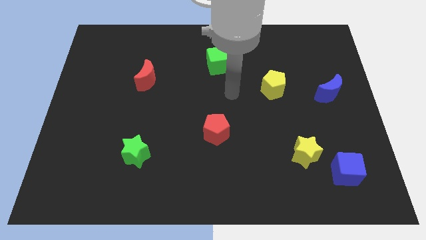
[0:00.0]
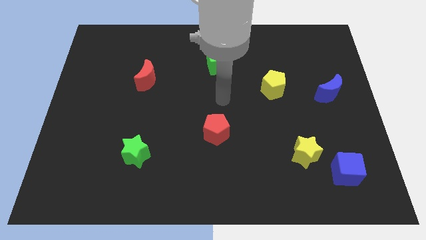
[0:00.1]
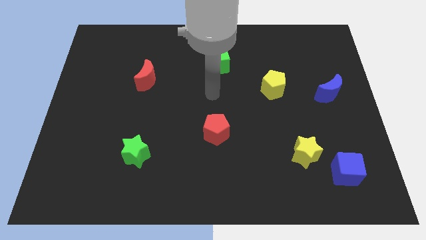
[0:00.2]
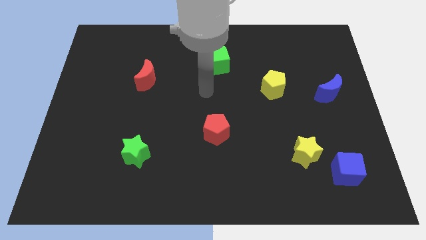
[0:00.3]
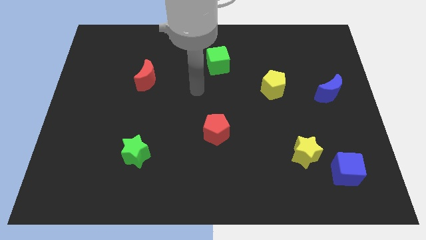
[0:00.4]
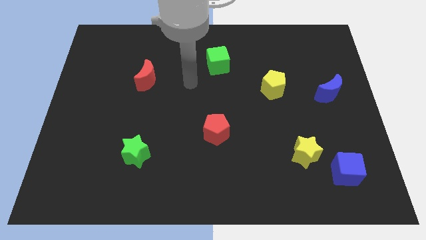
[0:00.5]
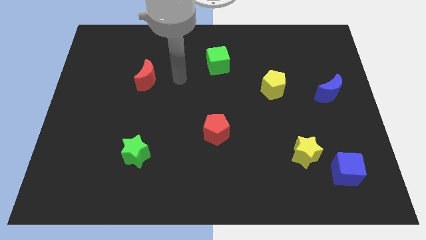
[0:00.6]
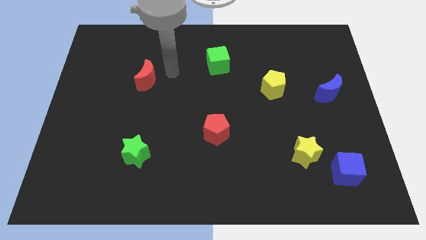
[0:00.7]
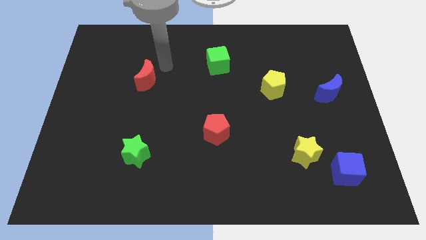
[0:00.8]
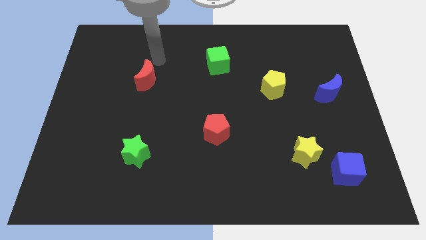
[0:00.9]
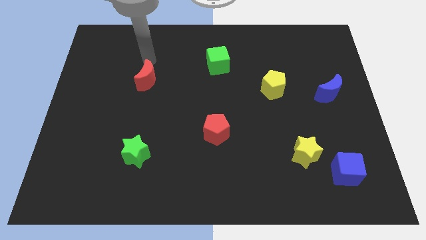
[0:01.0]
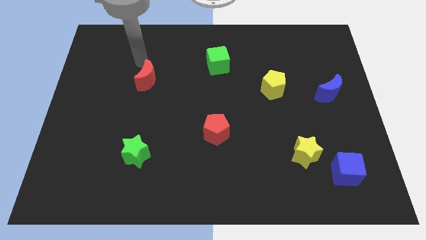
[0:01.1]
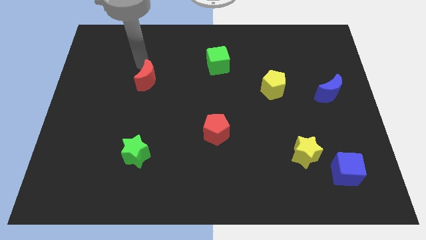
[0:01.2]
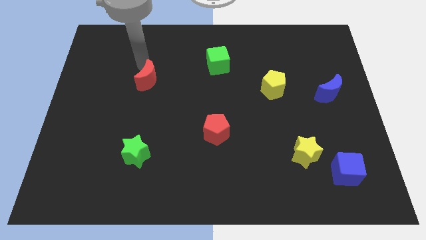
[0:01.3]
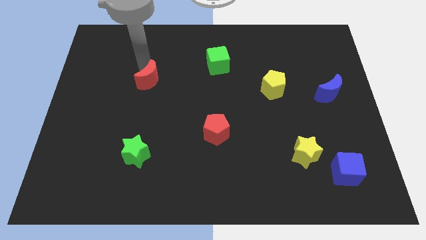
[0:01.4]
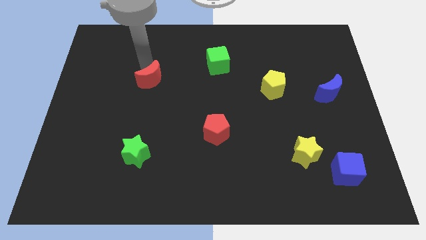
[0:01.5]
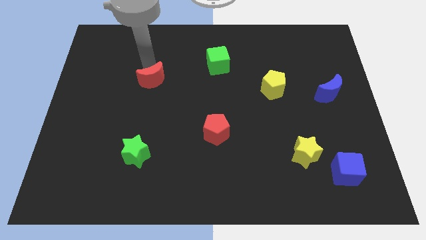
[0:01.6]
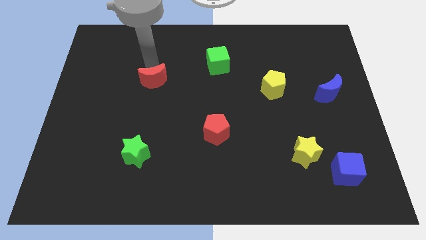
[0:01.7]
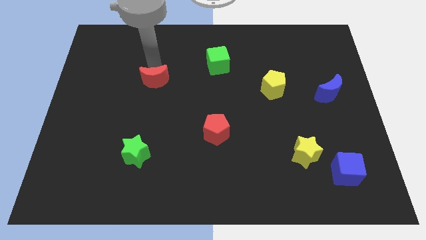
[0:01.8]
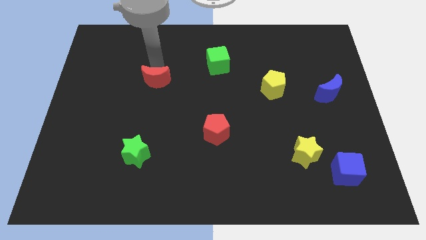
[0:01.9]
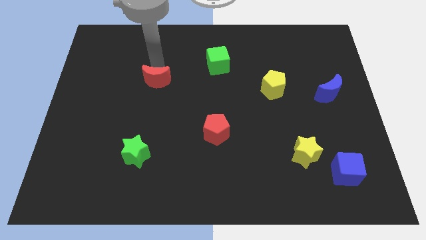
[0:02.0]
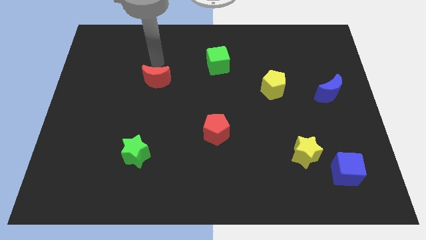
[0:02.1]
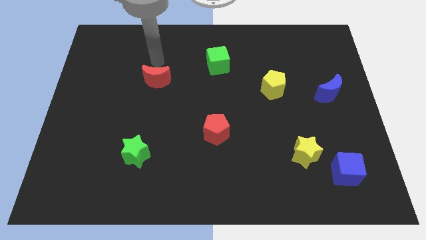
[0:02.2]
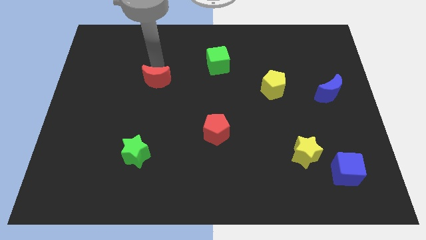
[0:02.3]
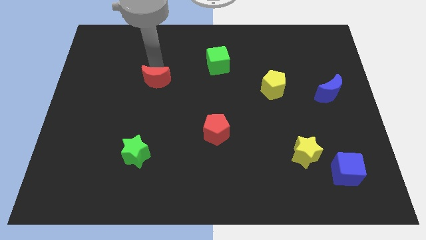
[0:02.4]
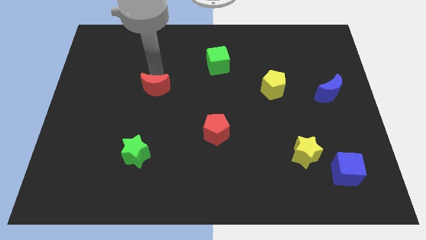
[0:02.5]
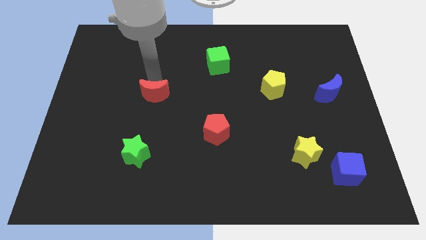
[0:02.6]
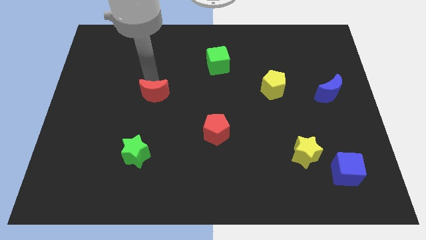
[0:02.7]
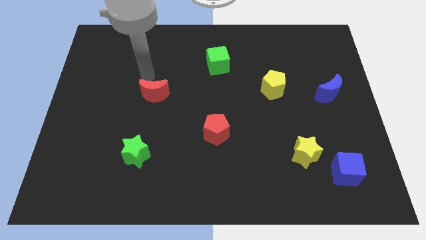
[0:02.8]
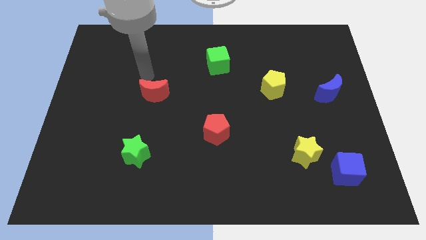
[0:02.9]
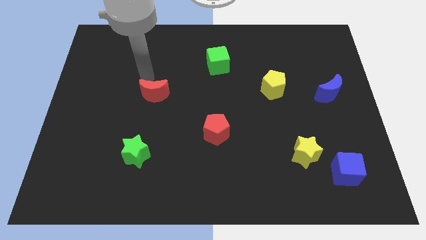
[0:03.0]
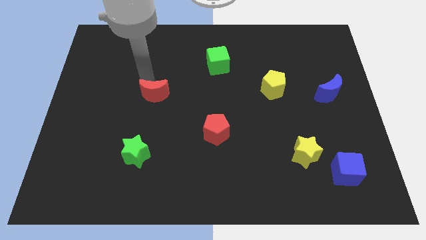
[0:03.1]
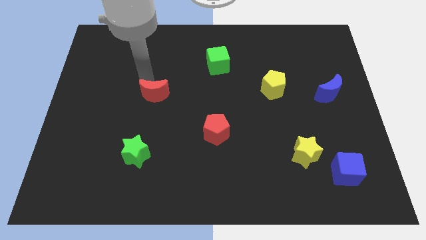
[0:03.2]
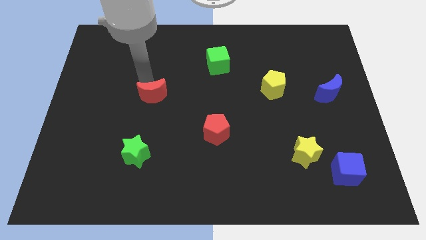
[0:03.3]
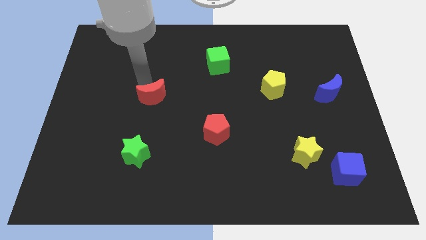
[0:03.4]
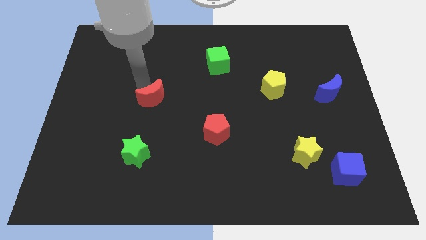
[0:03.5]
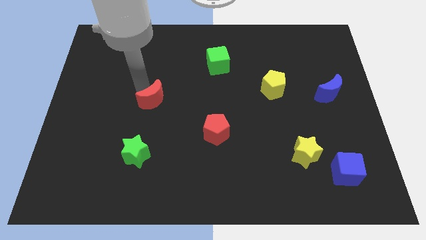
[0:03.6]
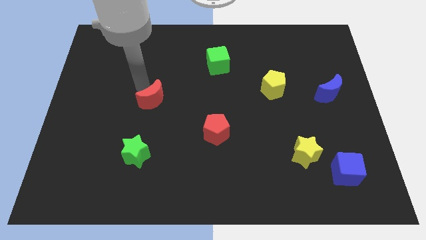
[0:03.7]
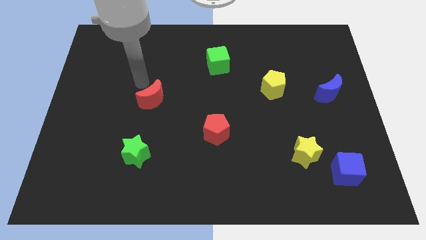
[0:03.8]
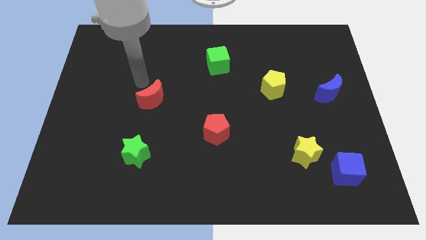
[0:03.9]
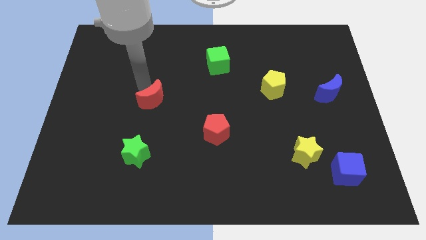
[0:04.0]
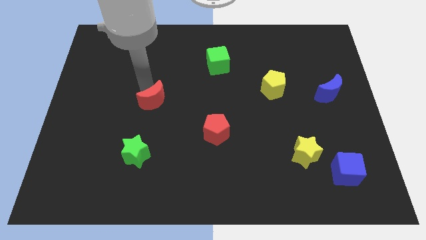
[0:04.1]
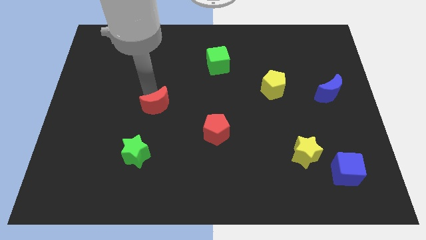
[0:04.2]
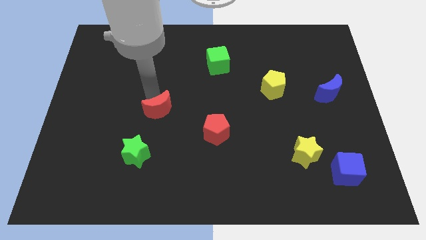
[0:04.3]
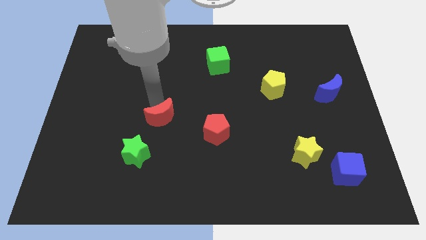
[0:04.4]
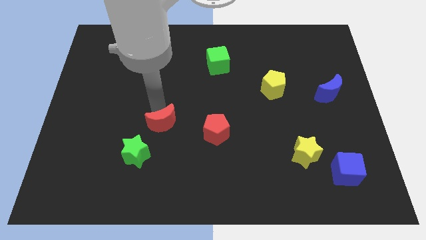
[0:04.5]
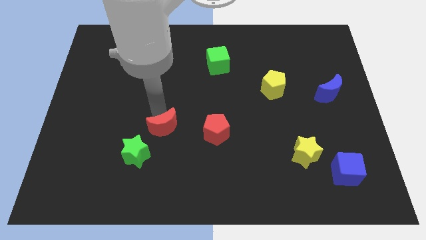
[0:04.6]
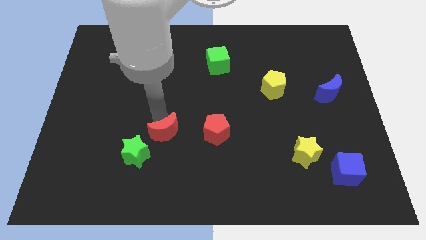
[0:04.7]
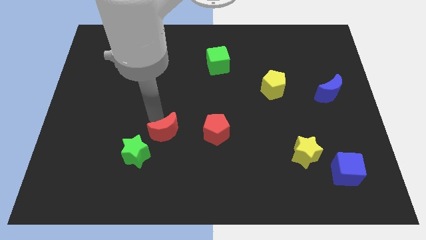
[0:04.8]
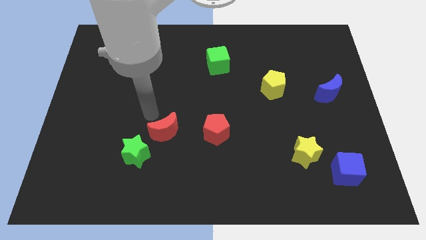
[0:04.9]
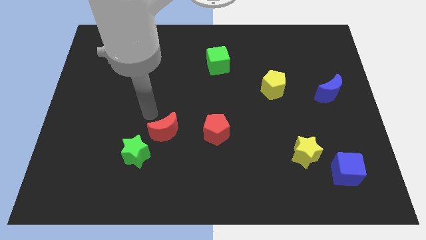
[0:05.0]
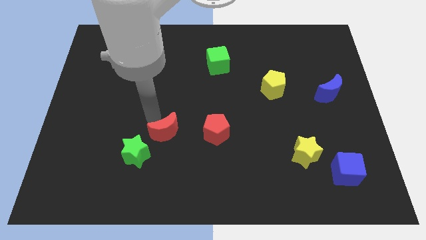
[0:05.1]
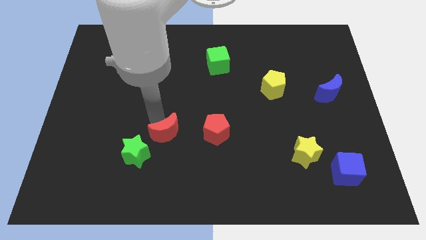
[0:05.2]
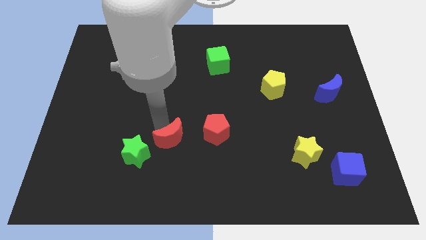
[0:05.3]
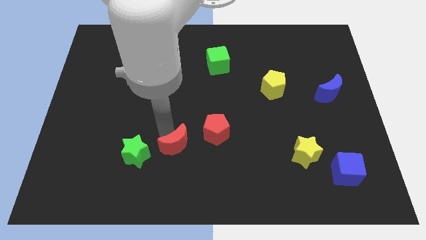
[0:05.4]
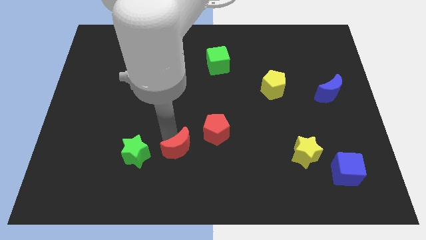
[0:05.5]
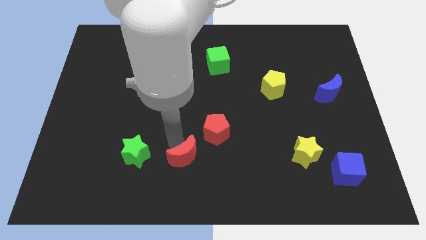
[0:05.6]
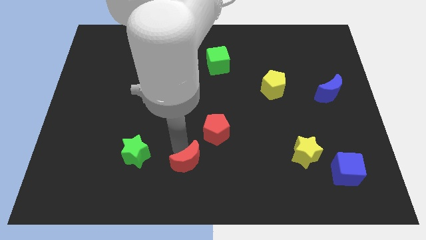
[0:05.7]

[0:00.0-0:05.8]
put the red moon to the bottom side

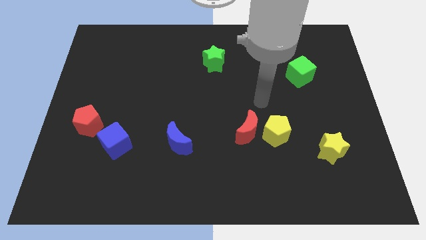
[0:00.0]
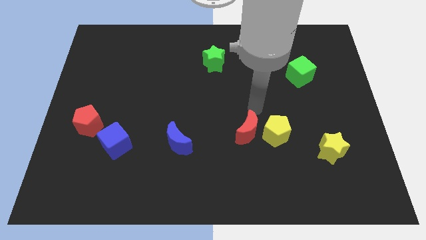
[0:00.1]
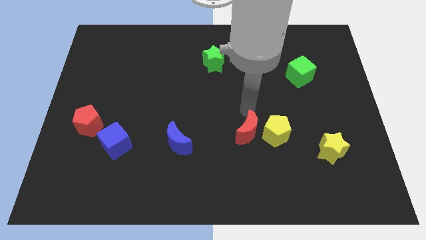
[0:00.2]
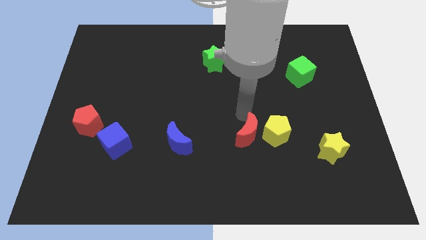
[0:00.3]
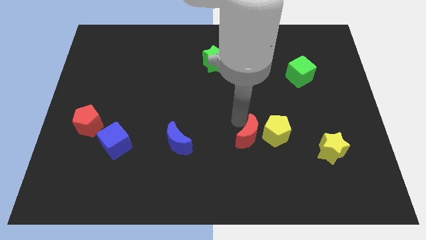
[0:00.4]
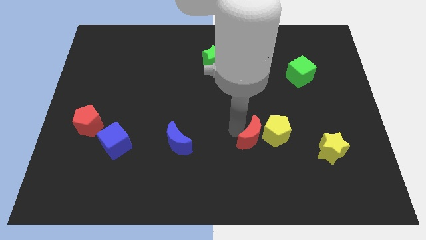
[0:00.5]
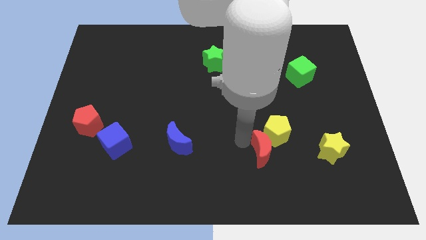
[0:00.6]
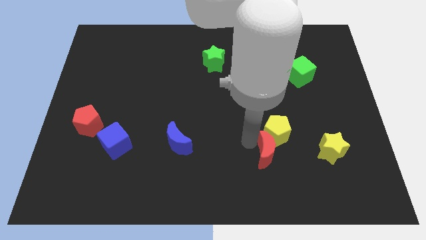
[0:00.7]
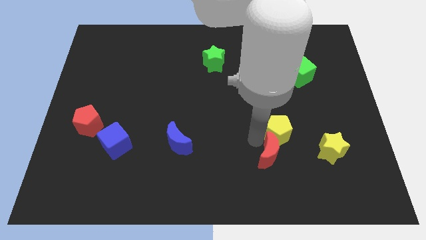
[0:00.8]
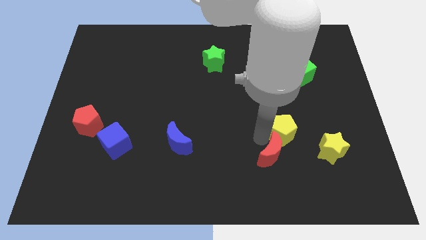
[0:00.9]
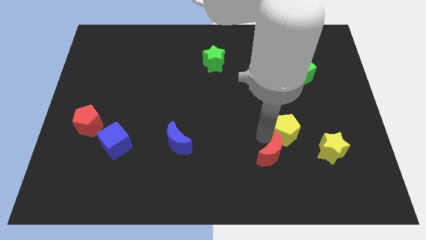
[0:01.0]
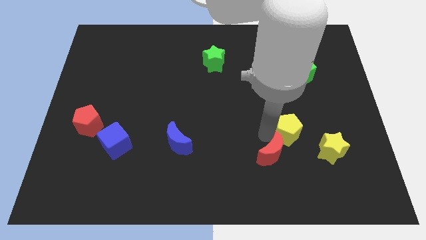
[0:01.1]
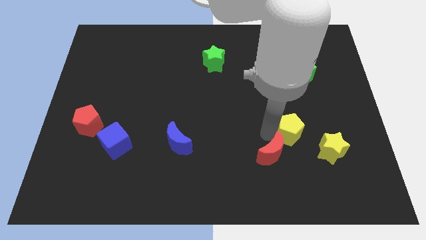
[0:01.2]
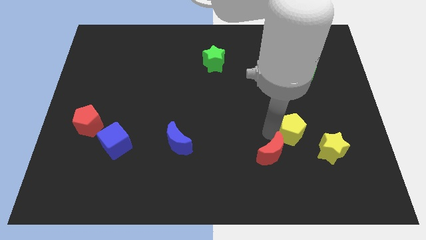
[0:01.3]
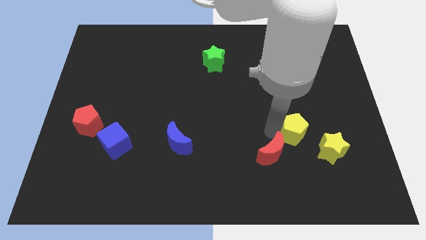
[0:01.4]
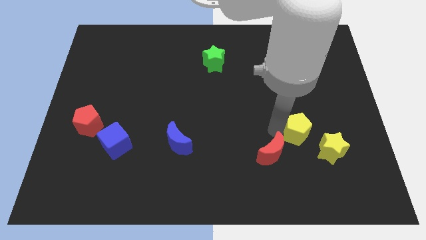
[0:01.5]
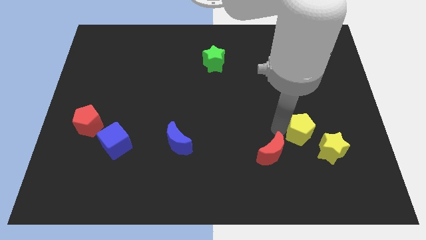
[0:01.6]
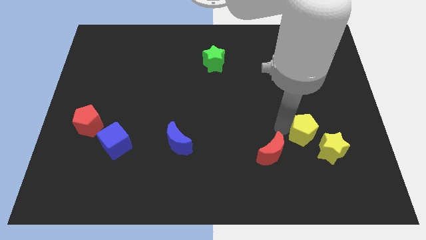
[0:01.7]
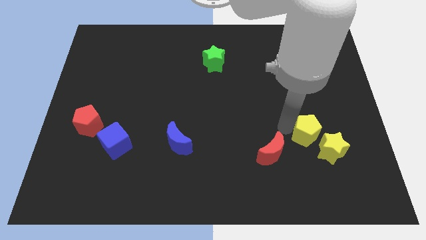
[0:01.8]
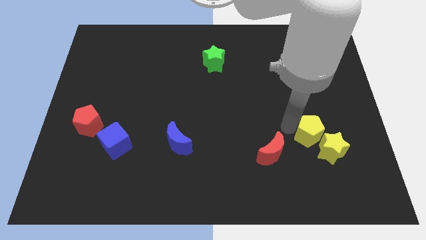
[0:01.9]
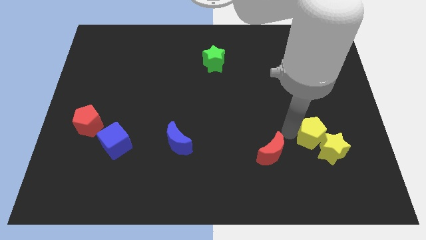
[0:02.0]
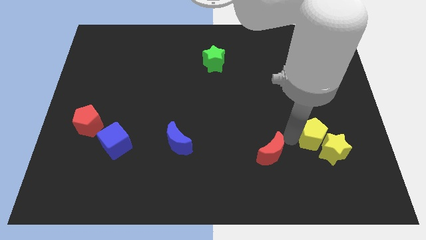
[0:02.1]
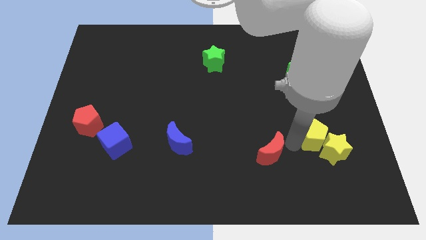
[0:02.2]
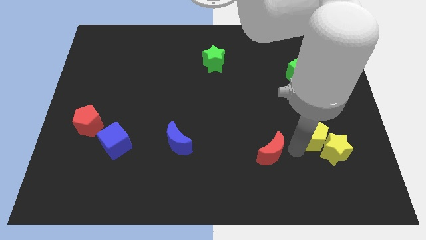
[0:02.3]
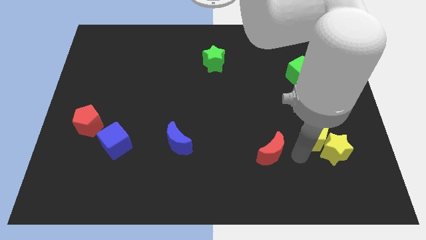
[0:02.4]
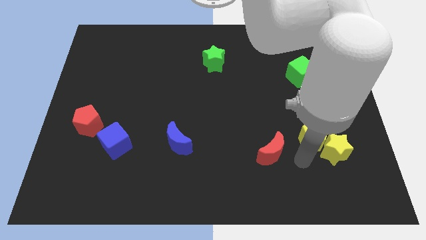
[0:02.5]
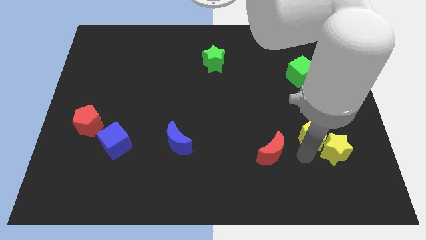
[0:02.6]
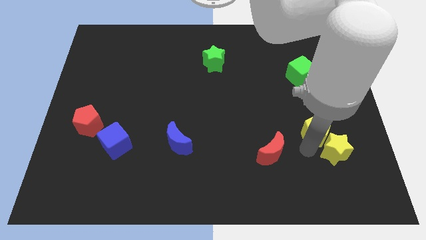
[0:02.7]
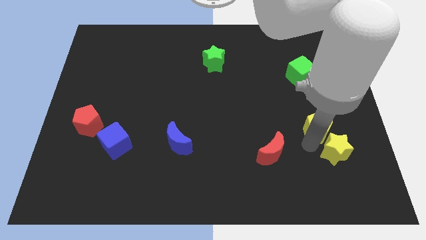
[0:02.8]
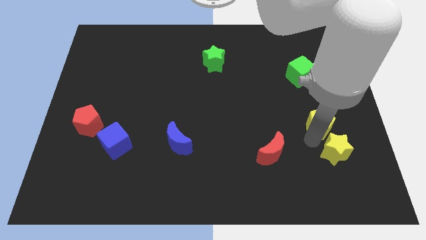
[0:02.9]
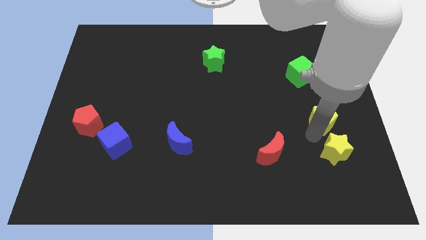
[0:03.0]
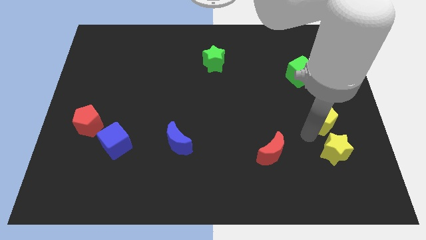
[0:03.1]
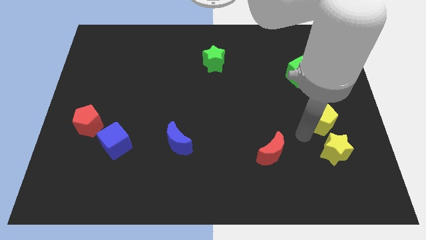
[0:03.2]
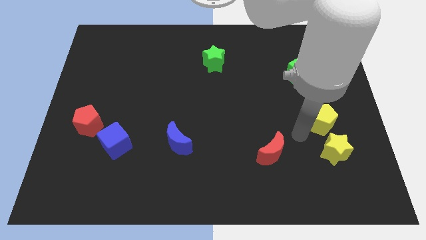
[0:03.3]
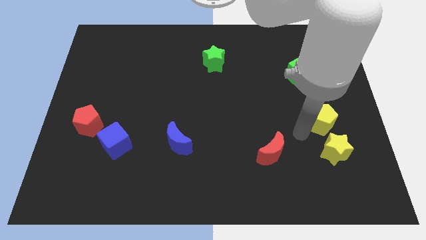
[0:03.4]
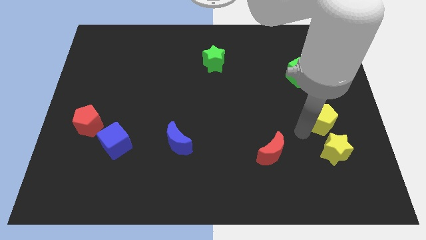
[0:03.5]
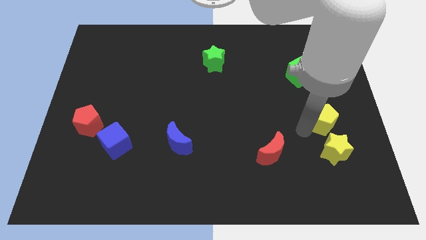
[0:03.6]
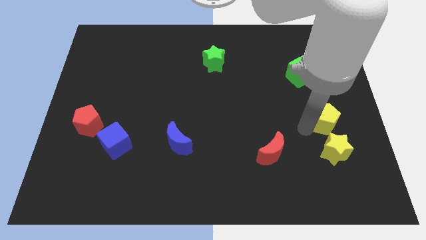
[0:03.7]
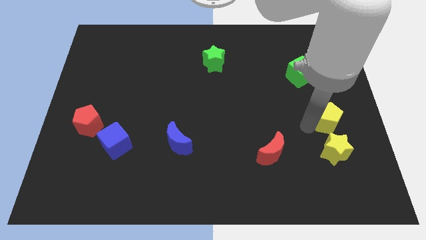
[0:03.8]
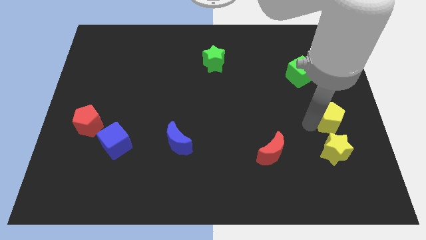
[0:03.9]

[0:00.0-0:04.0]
move the yellow pentagon to the center right
